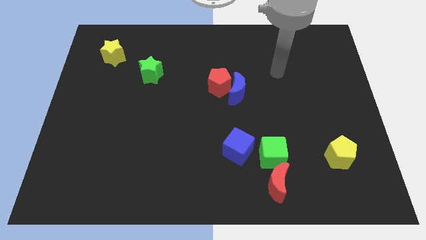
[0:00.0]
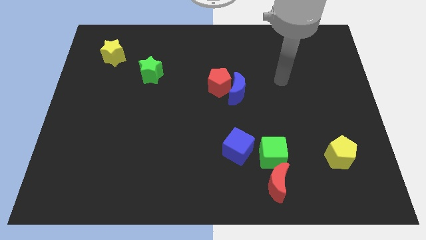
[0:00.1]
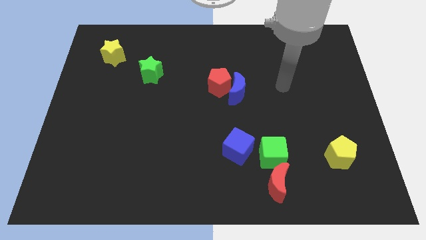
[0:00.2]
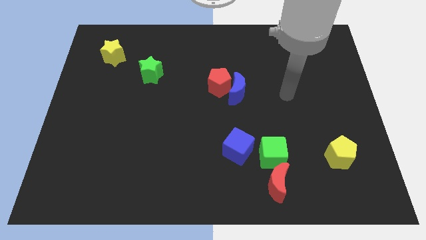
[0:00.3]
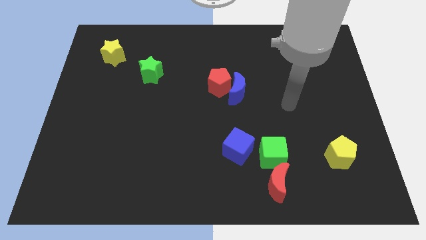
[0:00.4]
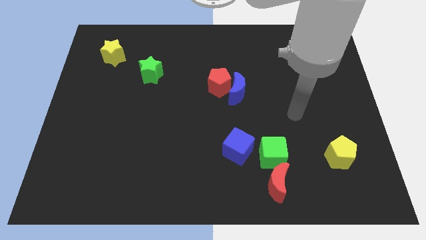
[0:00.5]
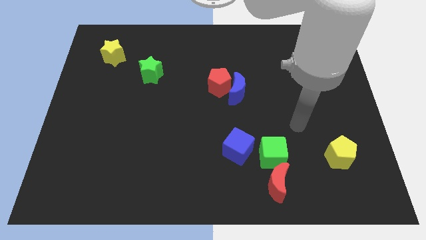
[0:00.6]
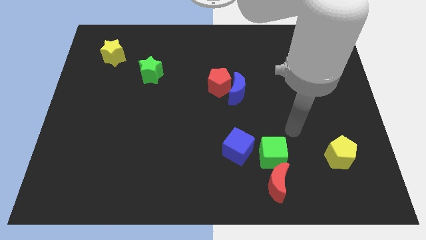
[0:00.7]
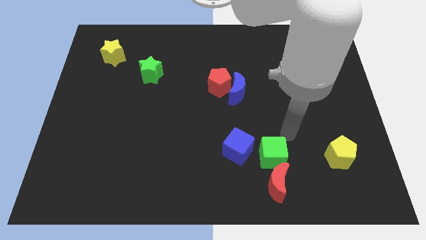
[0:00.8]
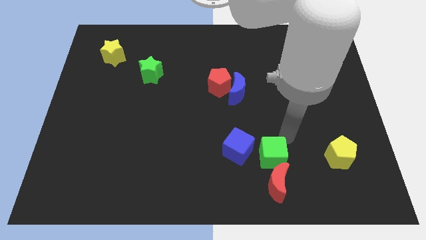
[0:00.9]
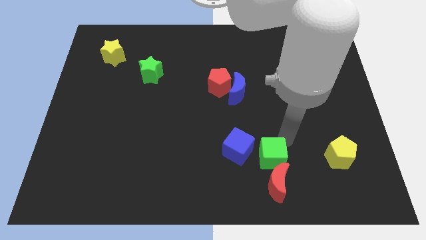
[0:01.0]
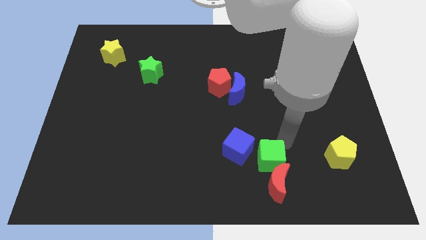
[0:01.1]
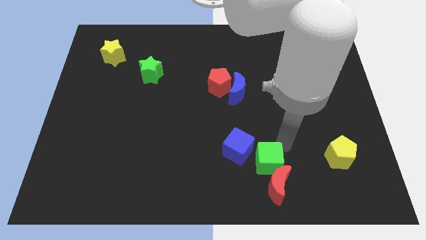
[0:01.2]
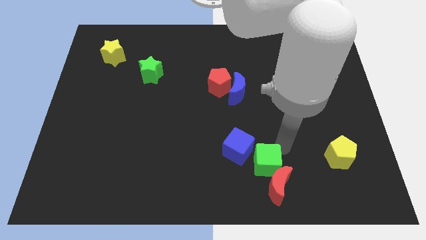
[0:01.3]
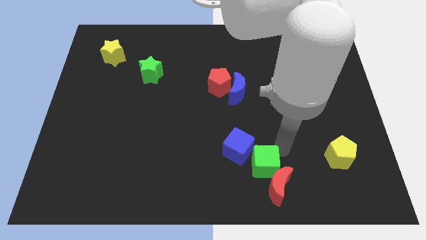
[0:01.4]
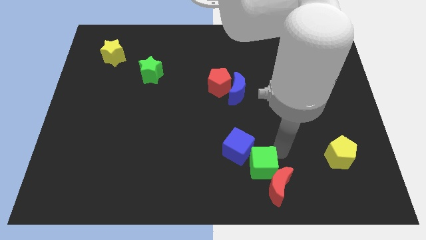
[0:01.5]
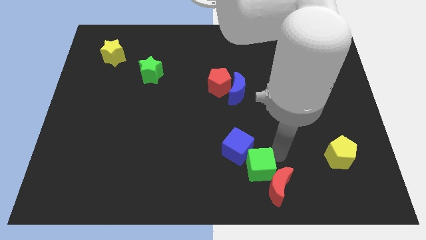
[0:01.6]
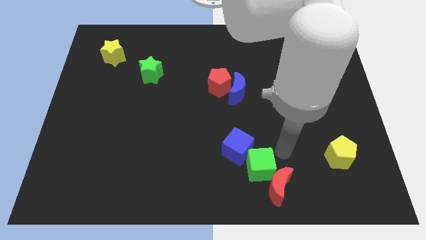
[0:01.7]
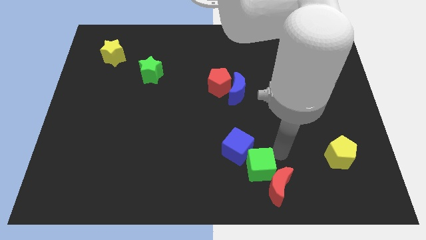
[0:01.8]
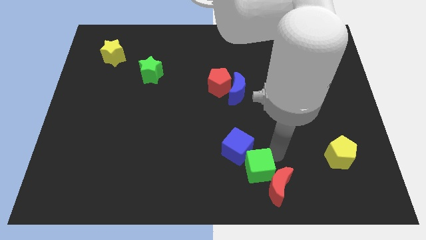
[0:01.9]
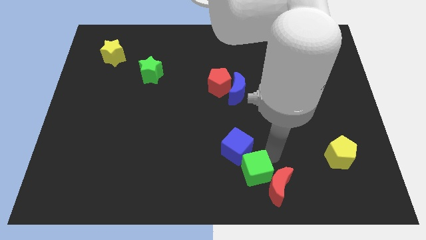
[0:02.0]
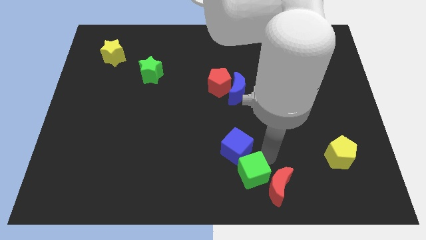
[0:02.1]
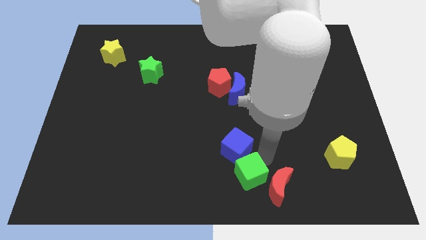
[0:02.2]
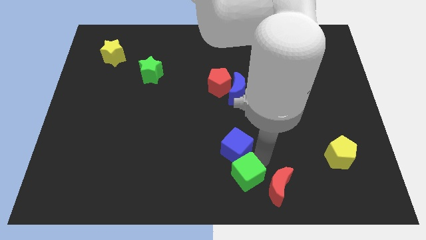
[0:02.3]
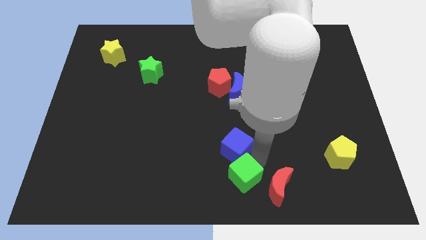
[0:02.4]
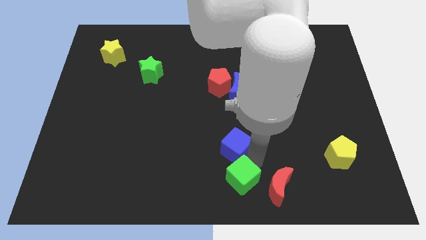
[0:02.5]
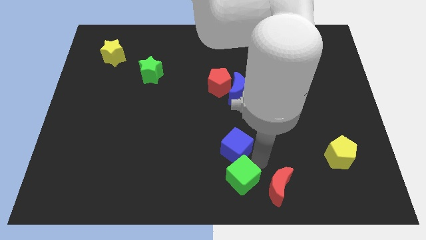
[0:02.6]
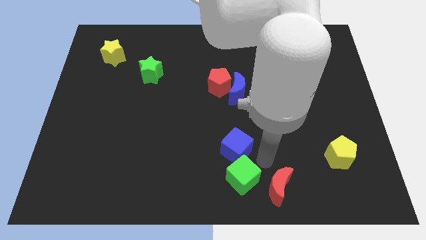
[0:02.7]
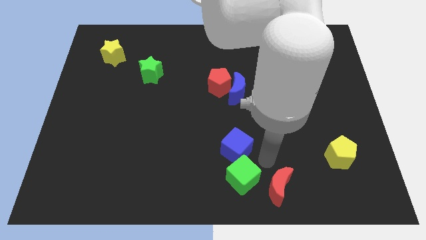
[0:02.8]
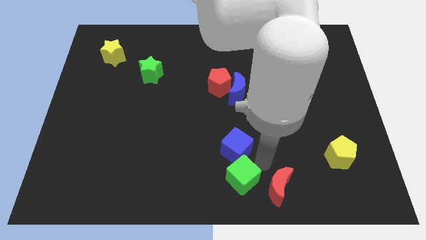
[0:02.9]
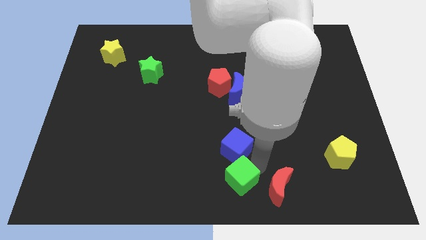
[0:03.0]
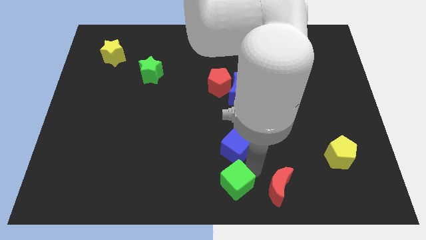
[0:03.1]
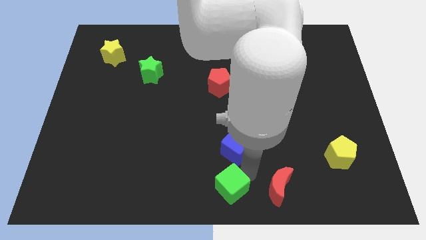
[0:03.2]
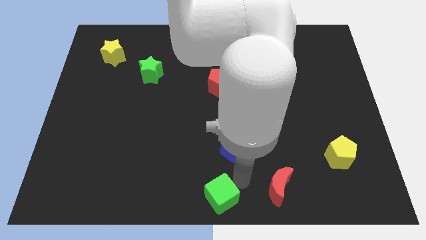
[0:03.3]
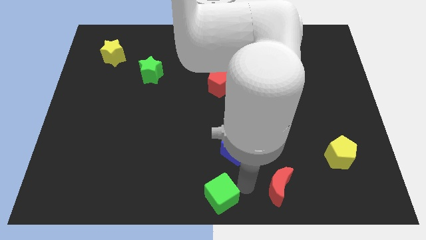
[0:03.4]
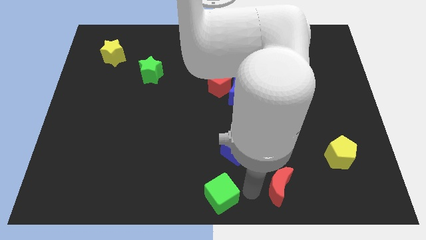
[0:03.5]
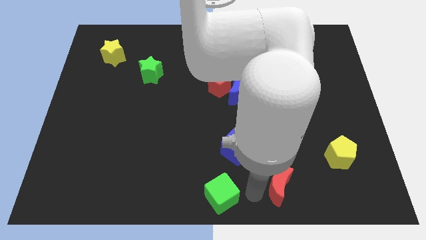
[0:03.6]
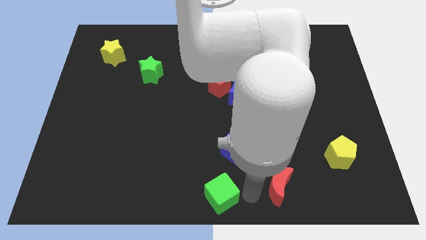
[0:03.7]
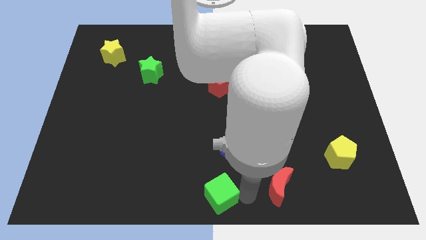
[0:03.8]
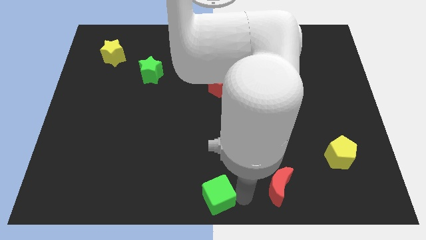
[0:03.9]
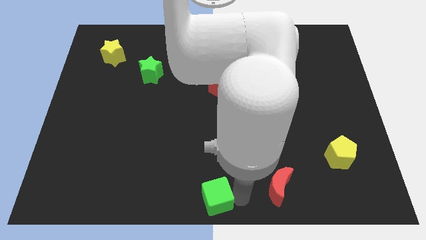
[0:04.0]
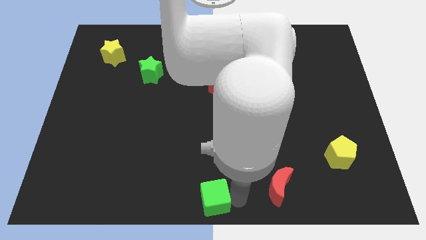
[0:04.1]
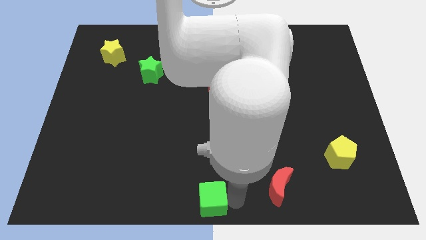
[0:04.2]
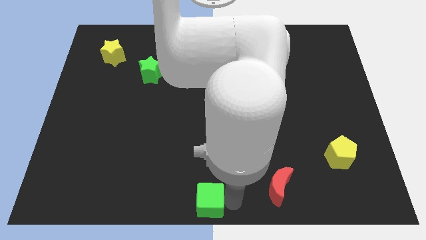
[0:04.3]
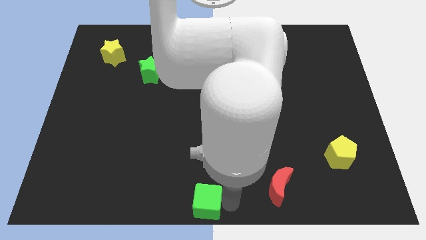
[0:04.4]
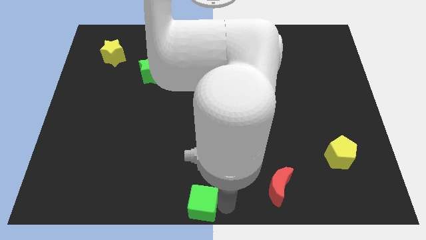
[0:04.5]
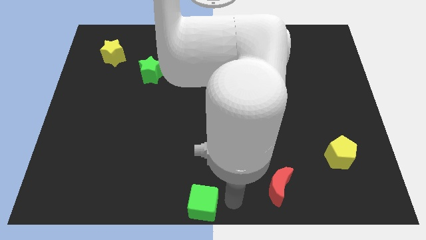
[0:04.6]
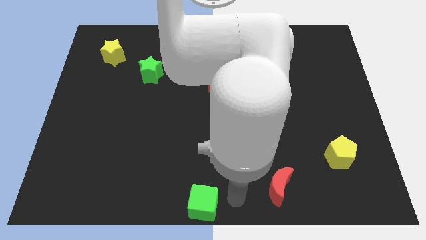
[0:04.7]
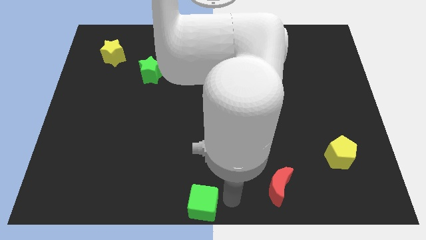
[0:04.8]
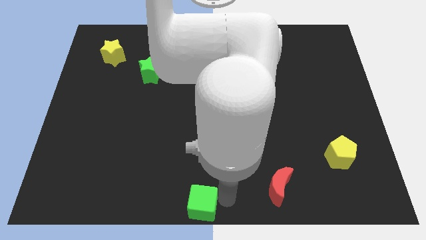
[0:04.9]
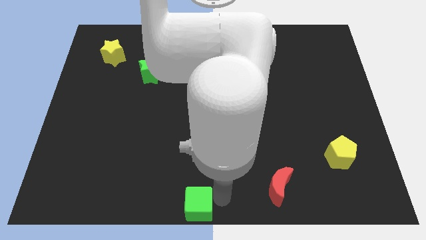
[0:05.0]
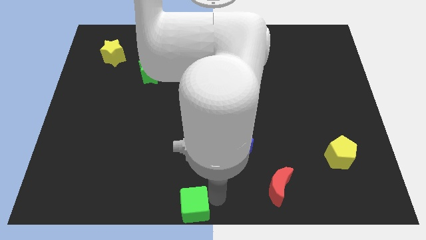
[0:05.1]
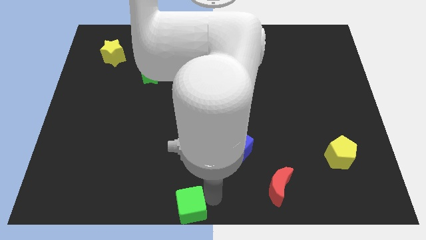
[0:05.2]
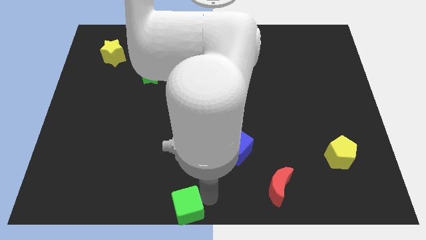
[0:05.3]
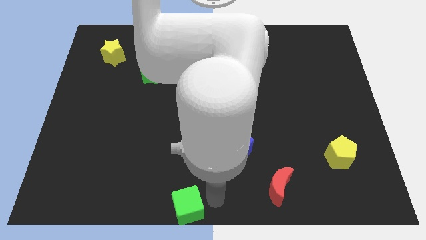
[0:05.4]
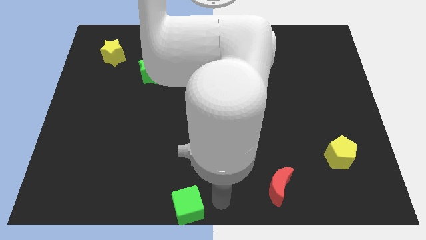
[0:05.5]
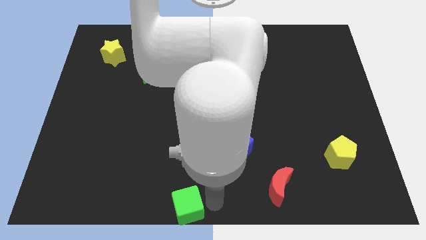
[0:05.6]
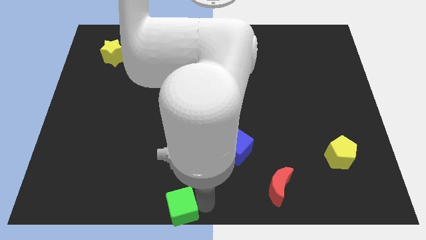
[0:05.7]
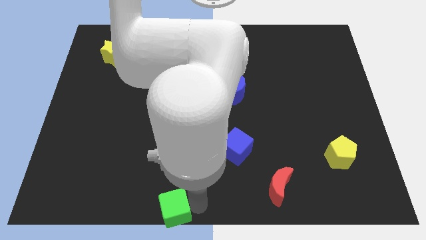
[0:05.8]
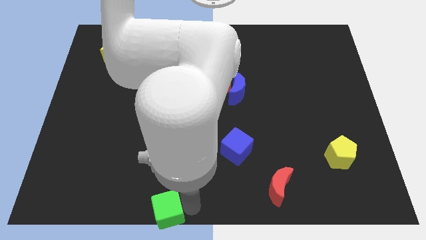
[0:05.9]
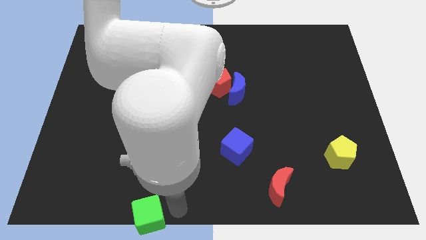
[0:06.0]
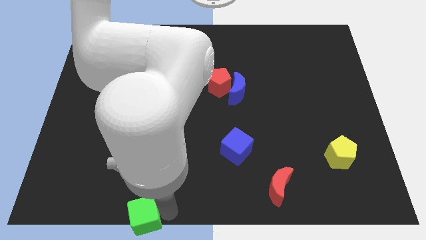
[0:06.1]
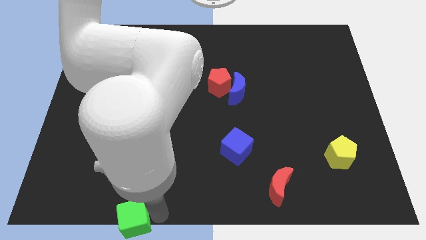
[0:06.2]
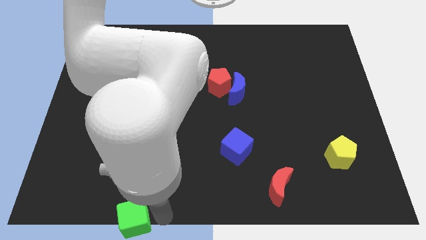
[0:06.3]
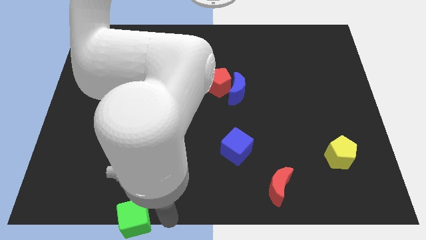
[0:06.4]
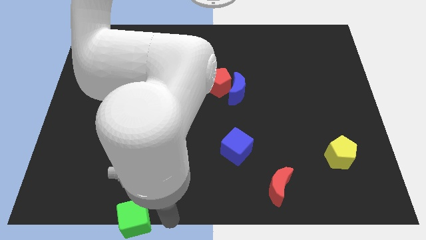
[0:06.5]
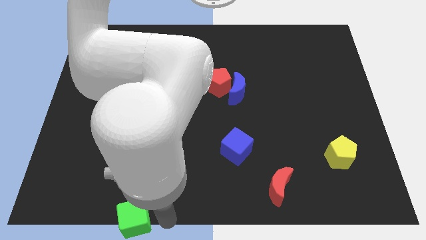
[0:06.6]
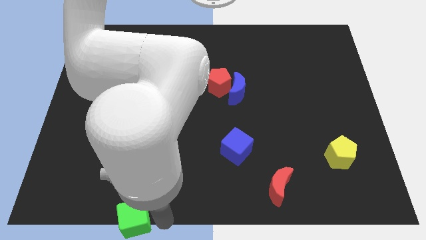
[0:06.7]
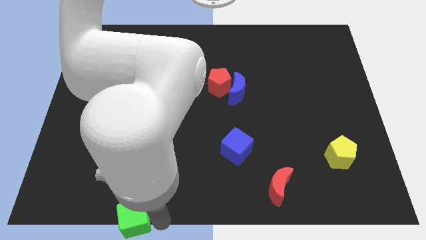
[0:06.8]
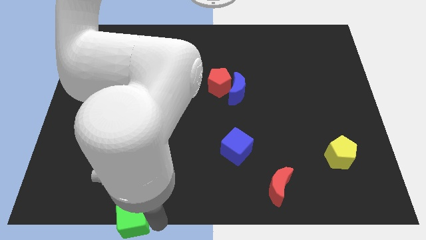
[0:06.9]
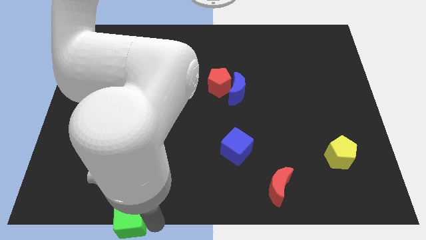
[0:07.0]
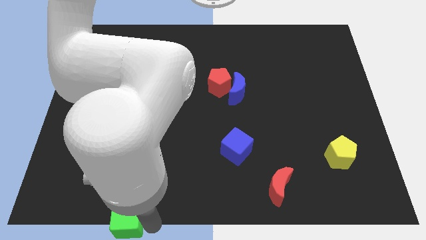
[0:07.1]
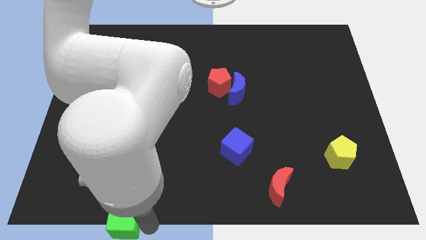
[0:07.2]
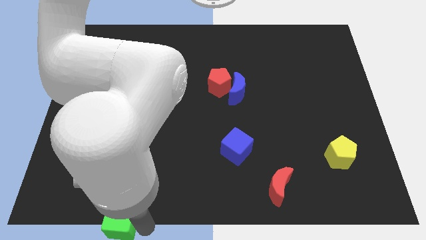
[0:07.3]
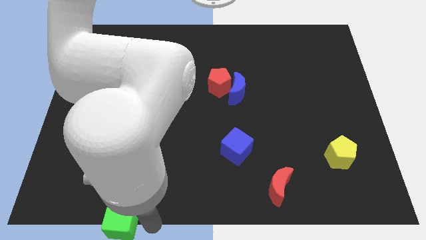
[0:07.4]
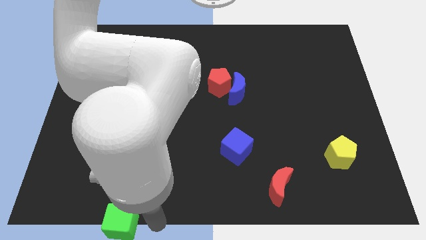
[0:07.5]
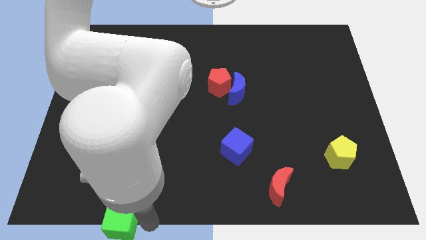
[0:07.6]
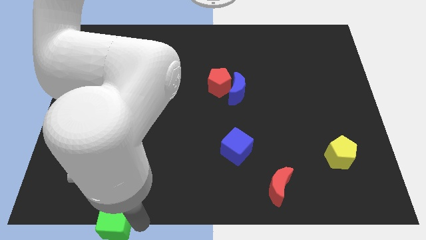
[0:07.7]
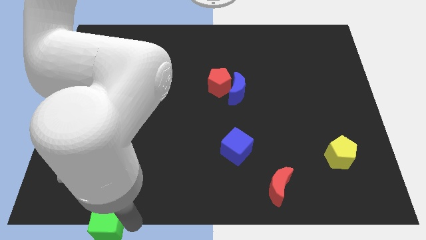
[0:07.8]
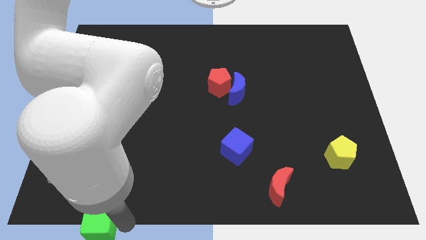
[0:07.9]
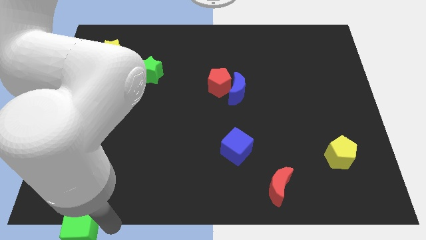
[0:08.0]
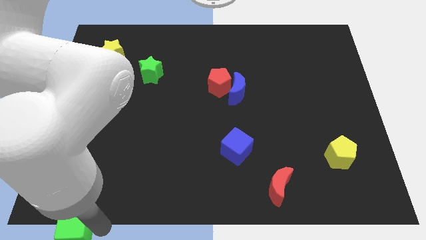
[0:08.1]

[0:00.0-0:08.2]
move the green cube to the lower left corner
